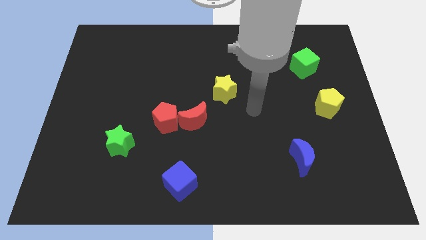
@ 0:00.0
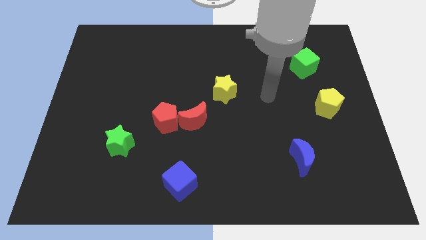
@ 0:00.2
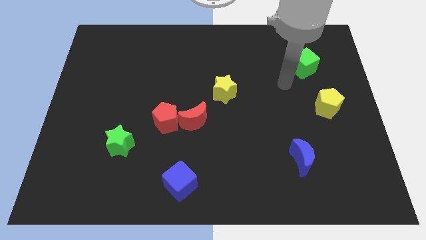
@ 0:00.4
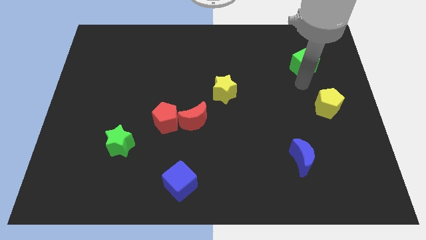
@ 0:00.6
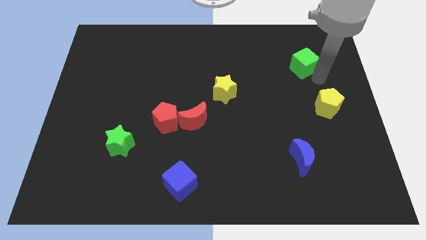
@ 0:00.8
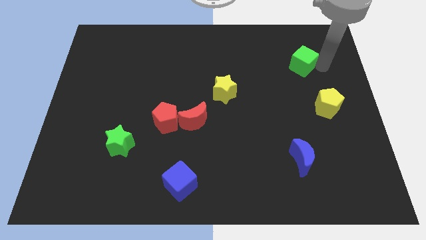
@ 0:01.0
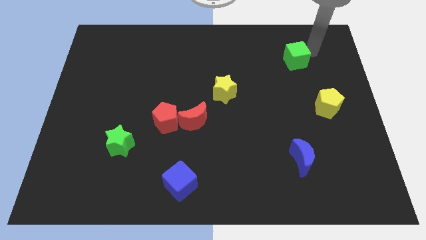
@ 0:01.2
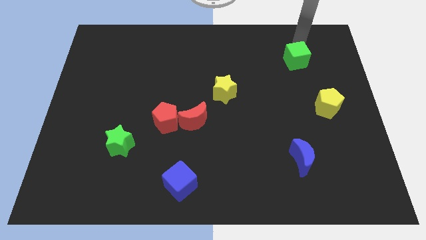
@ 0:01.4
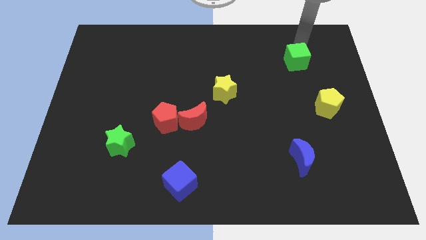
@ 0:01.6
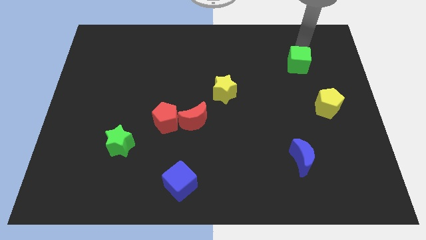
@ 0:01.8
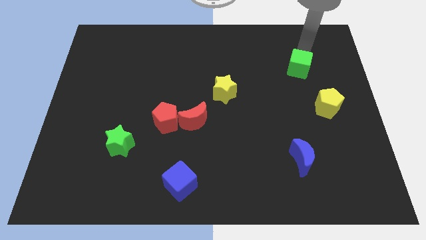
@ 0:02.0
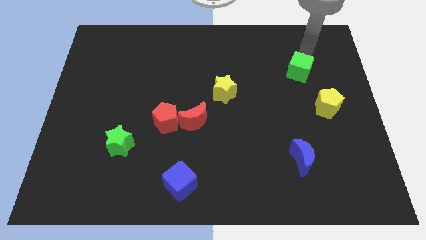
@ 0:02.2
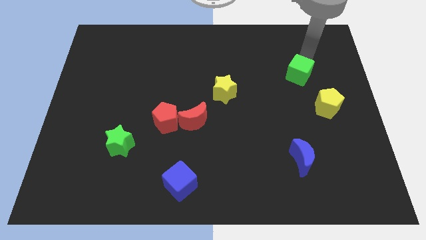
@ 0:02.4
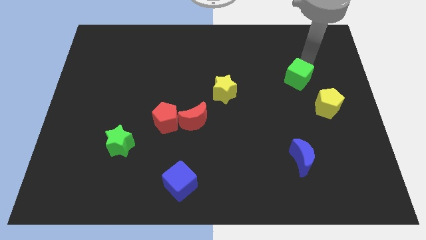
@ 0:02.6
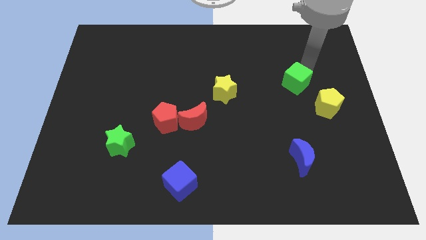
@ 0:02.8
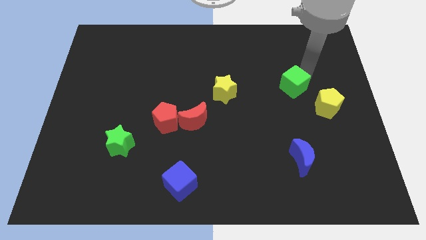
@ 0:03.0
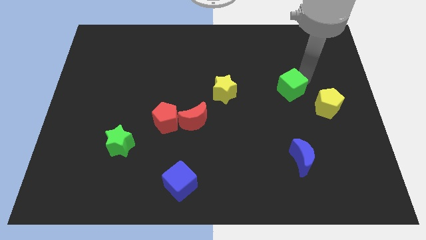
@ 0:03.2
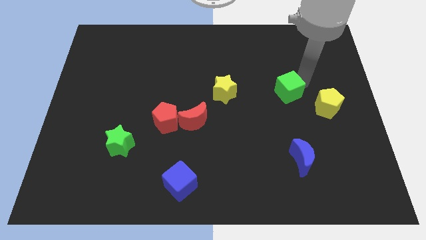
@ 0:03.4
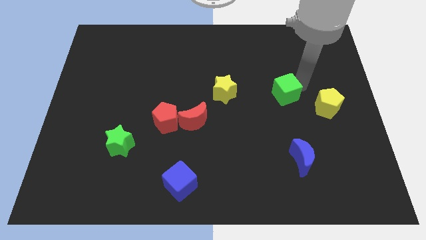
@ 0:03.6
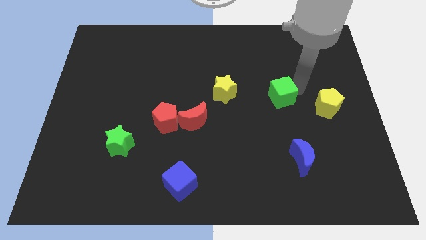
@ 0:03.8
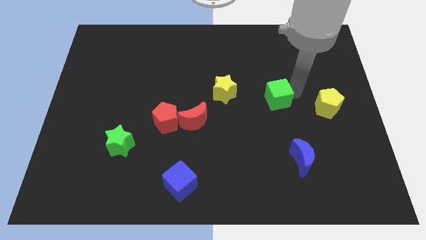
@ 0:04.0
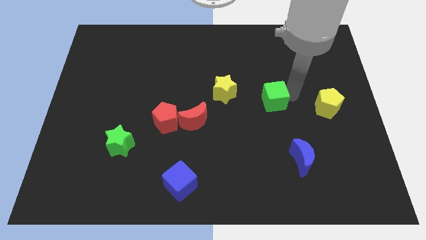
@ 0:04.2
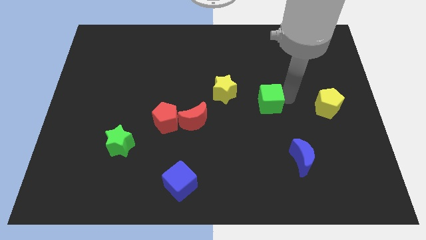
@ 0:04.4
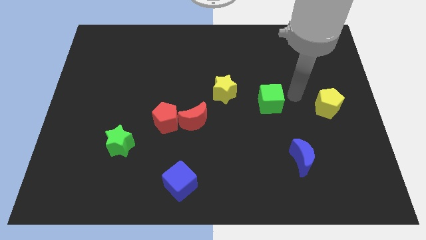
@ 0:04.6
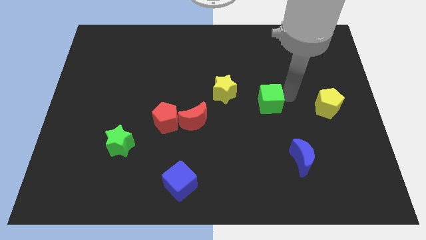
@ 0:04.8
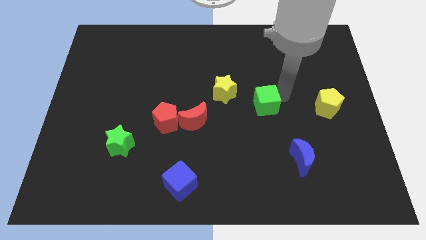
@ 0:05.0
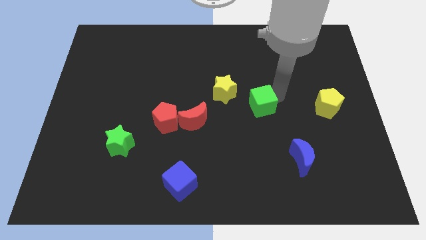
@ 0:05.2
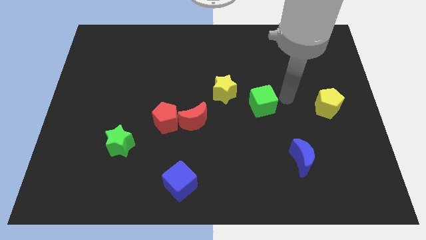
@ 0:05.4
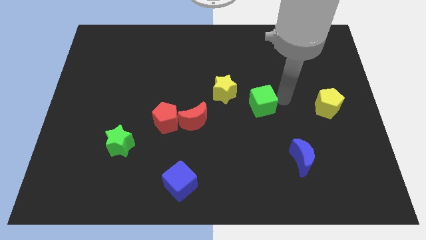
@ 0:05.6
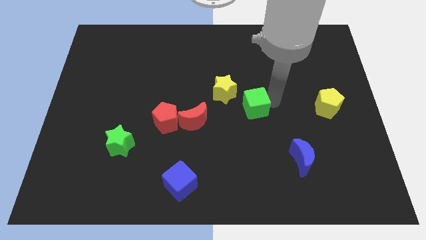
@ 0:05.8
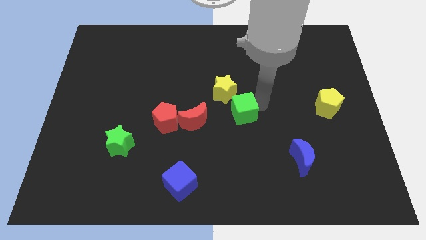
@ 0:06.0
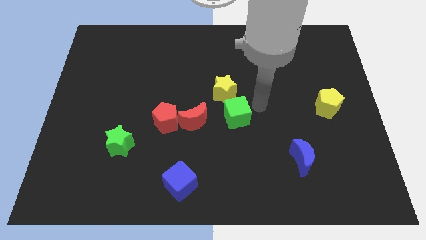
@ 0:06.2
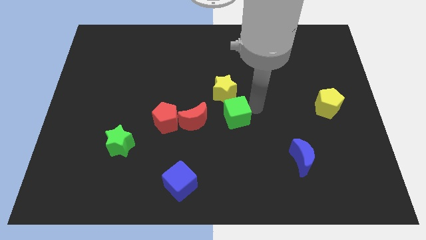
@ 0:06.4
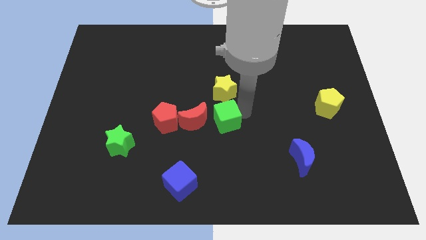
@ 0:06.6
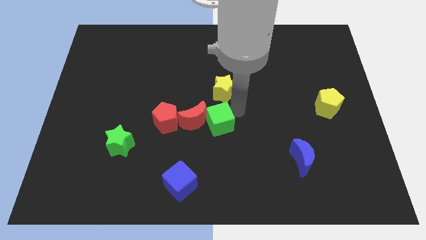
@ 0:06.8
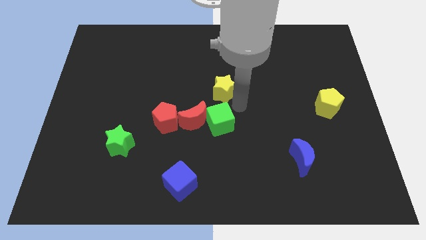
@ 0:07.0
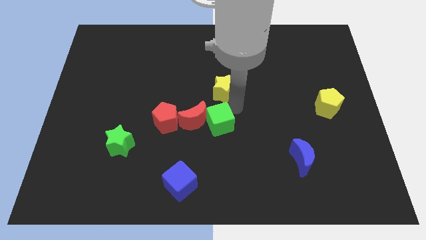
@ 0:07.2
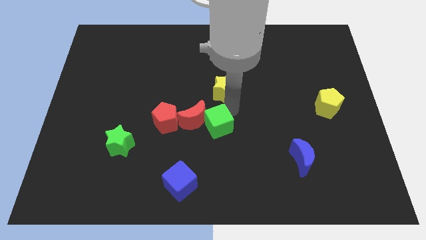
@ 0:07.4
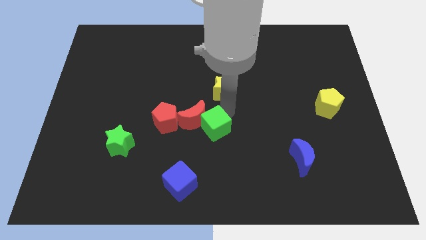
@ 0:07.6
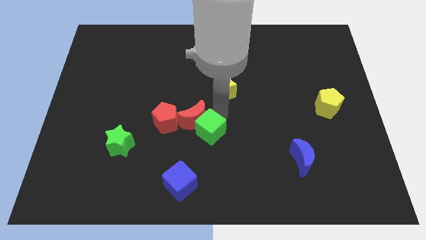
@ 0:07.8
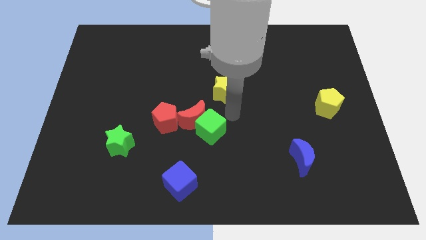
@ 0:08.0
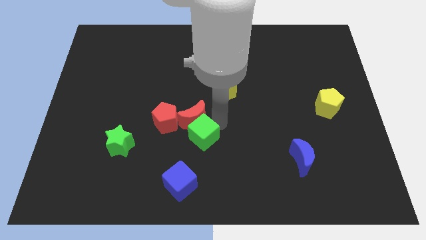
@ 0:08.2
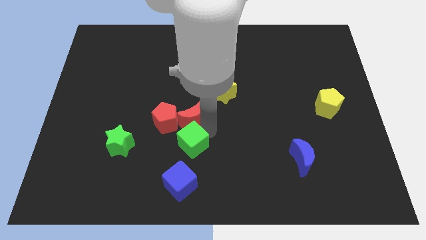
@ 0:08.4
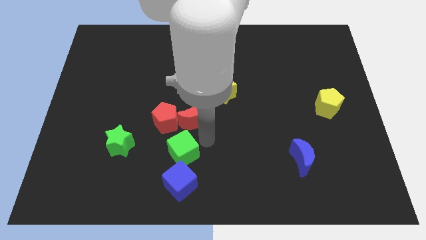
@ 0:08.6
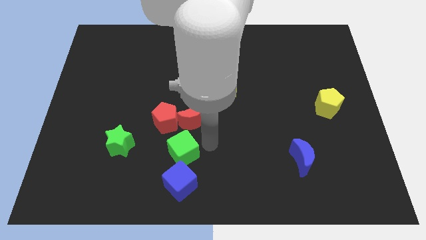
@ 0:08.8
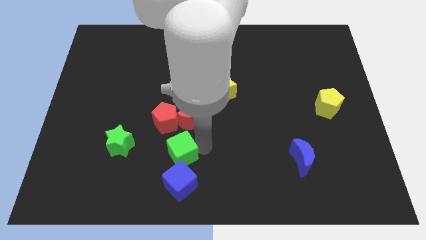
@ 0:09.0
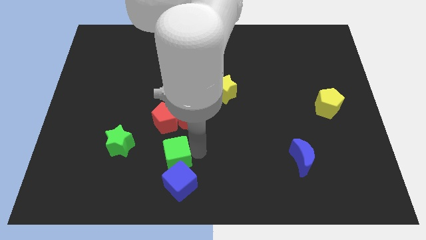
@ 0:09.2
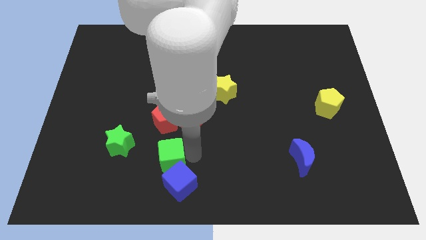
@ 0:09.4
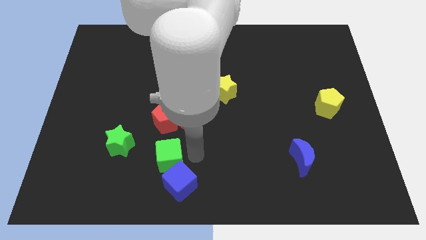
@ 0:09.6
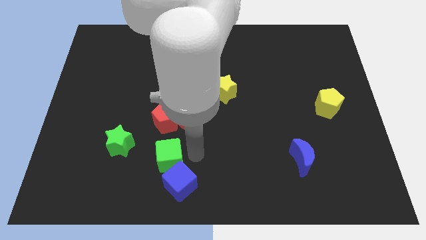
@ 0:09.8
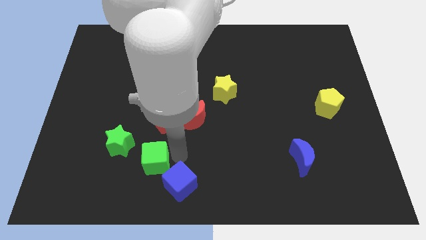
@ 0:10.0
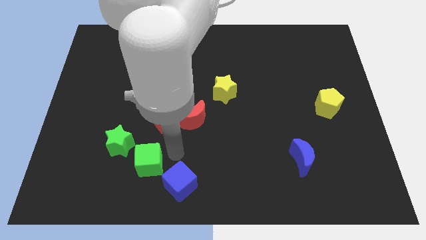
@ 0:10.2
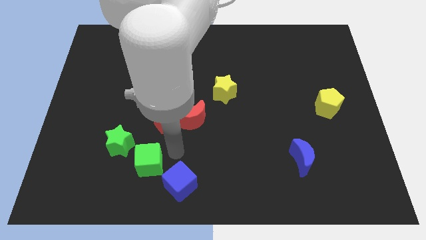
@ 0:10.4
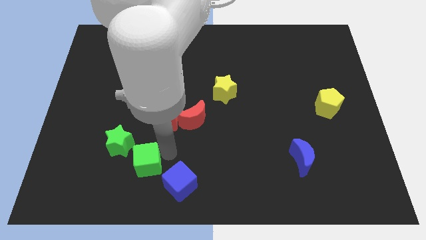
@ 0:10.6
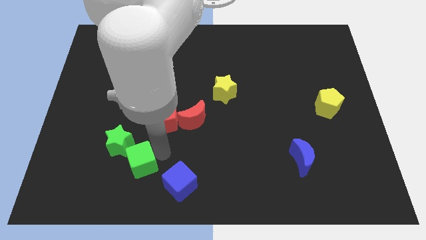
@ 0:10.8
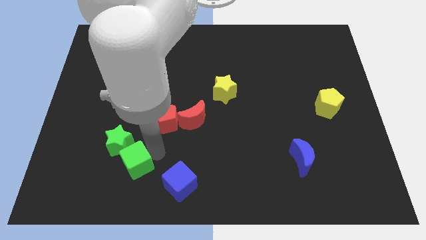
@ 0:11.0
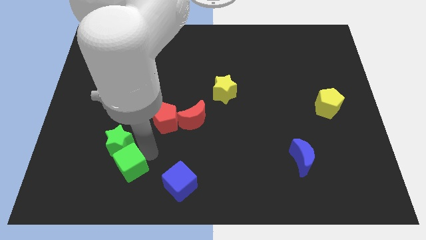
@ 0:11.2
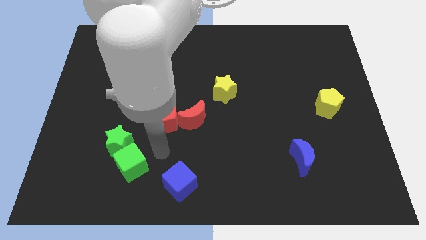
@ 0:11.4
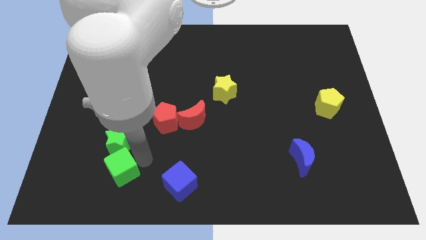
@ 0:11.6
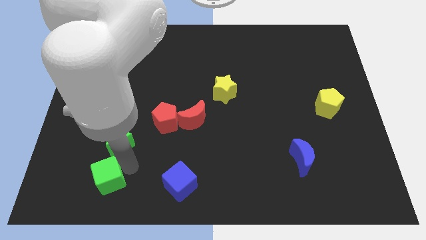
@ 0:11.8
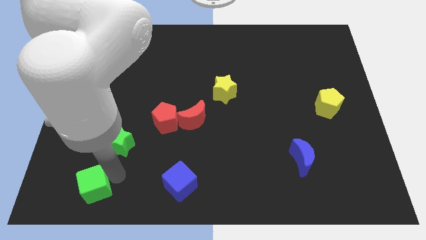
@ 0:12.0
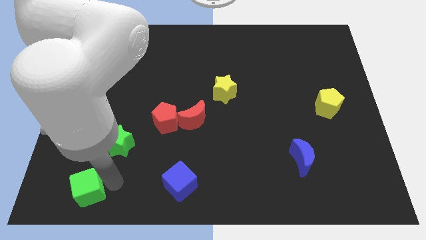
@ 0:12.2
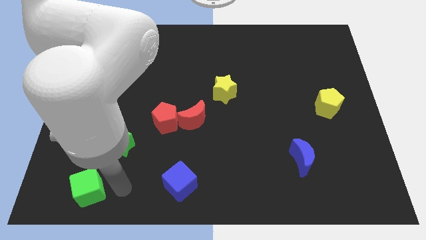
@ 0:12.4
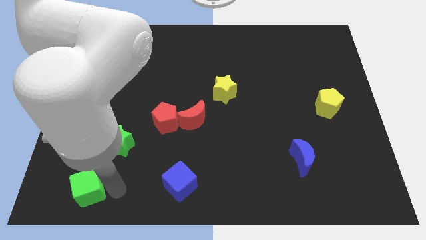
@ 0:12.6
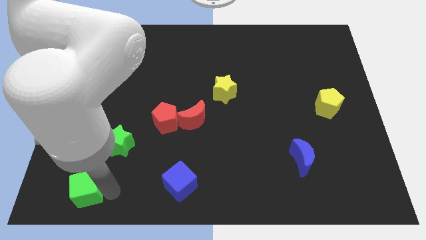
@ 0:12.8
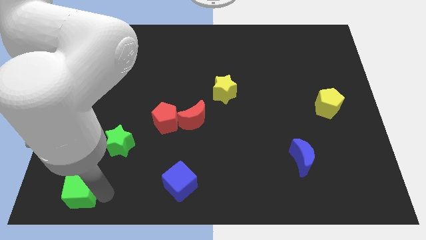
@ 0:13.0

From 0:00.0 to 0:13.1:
put the green cube to the bottom left of the board
